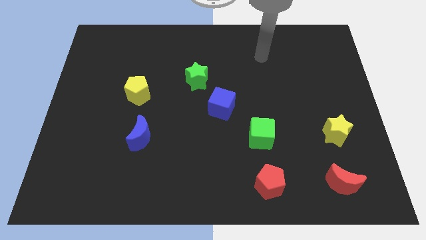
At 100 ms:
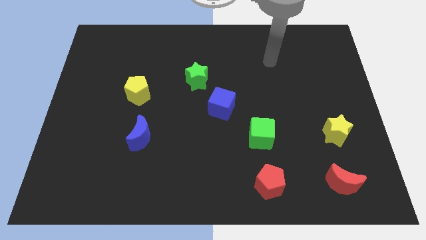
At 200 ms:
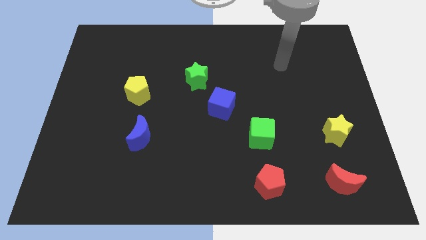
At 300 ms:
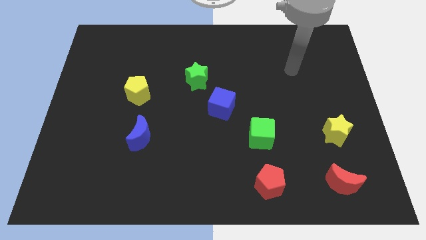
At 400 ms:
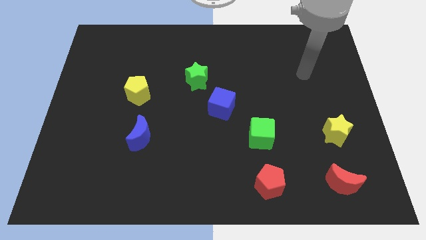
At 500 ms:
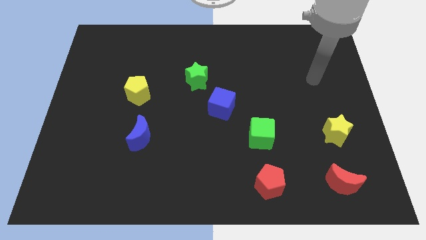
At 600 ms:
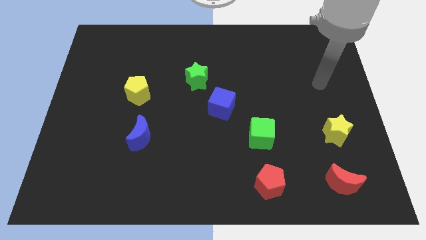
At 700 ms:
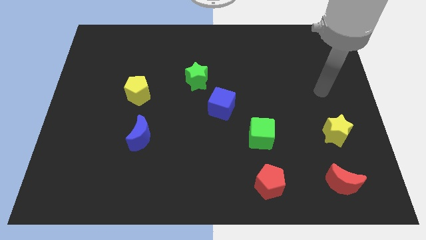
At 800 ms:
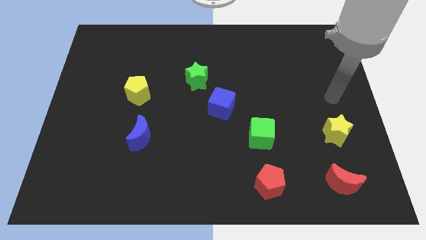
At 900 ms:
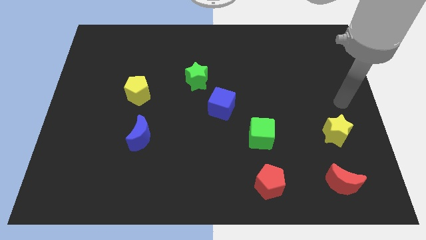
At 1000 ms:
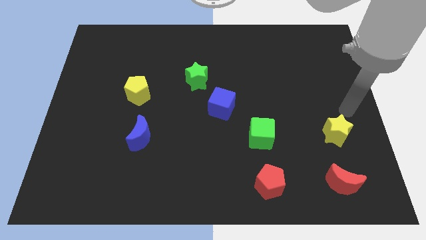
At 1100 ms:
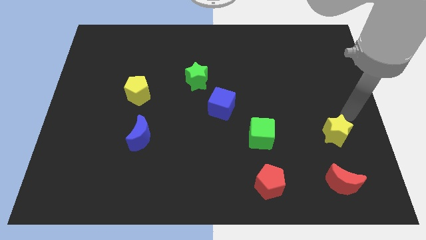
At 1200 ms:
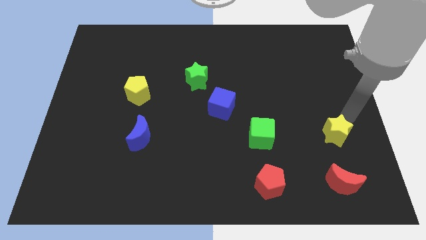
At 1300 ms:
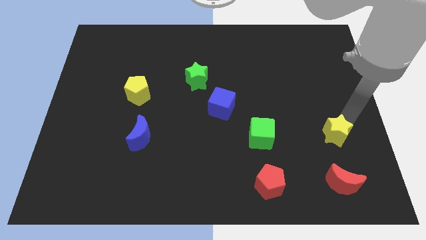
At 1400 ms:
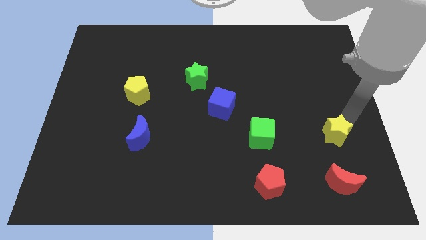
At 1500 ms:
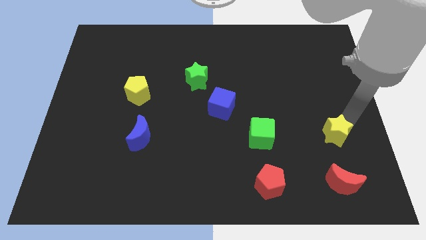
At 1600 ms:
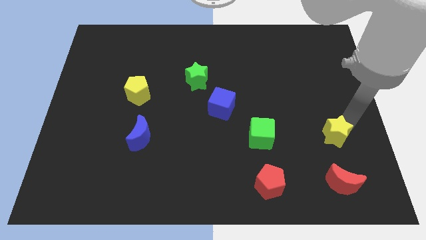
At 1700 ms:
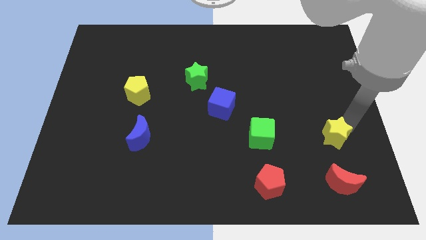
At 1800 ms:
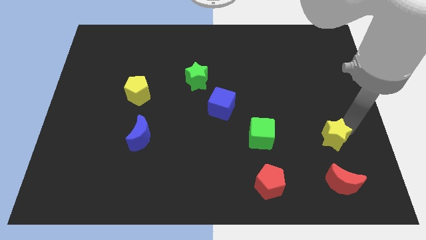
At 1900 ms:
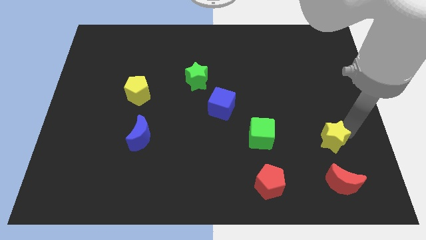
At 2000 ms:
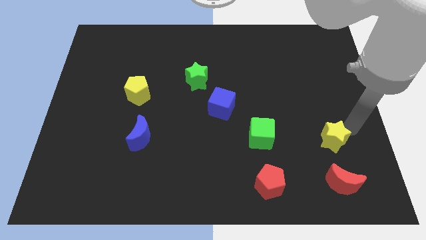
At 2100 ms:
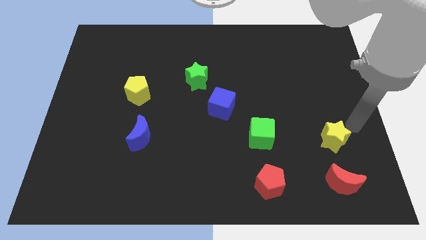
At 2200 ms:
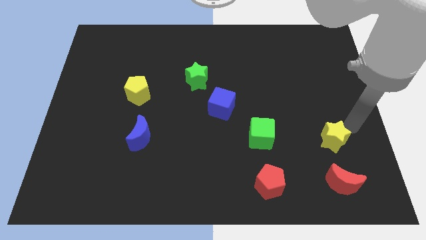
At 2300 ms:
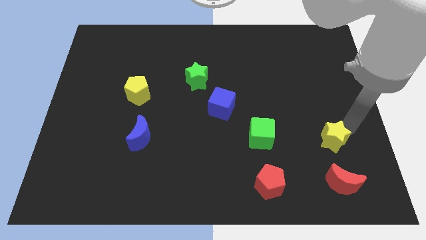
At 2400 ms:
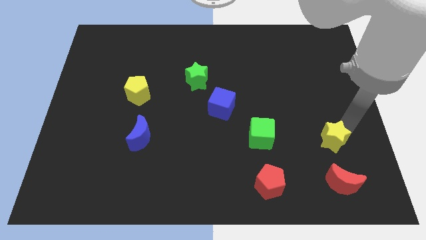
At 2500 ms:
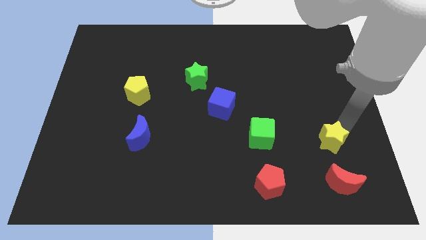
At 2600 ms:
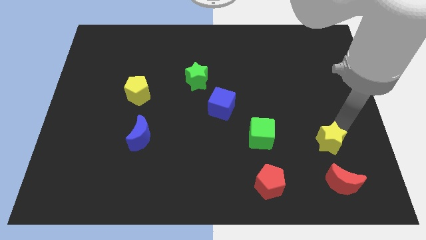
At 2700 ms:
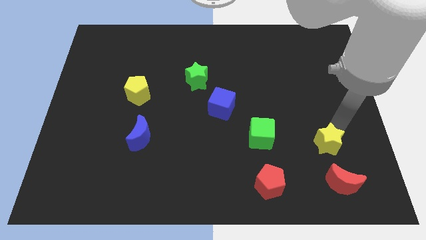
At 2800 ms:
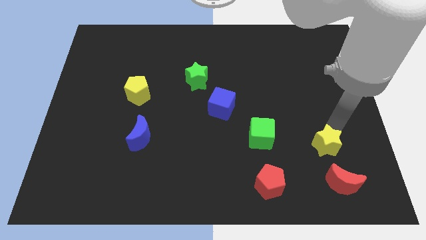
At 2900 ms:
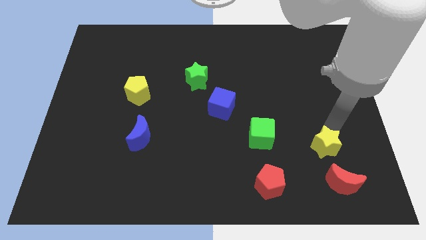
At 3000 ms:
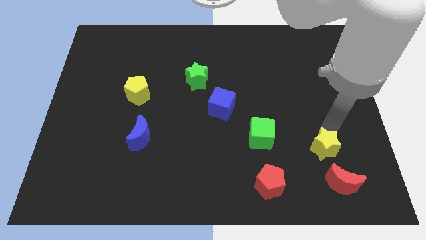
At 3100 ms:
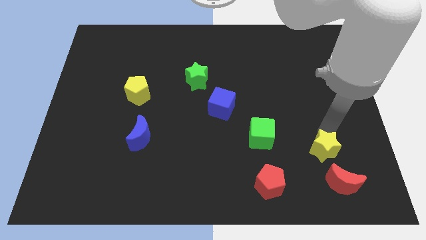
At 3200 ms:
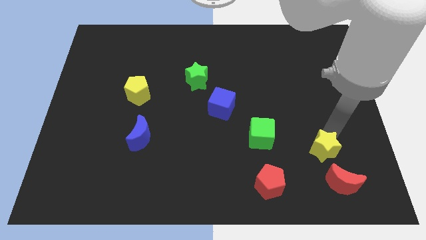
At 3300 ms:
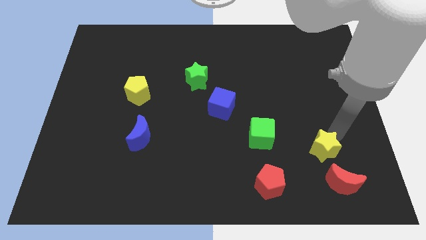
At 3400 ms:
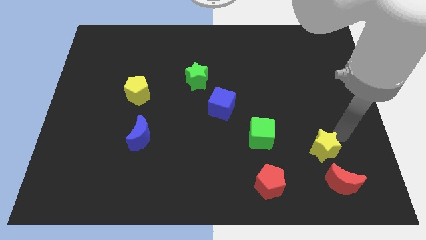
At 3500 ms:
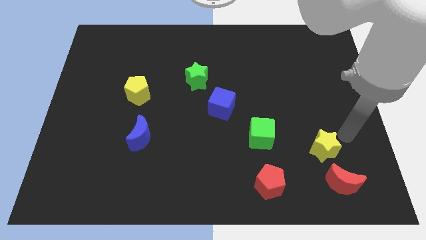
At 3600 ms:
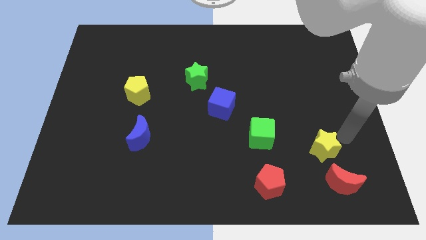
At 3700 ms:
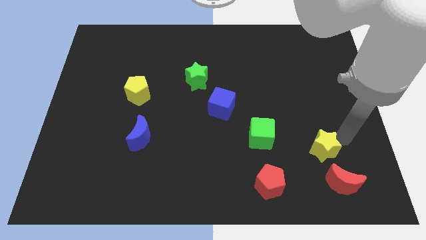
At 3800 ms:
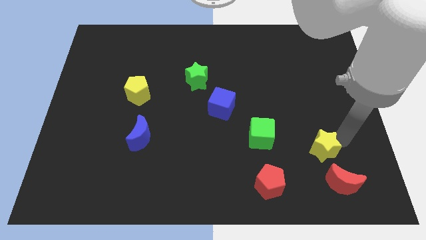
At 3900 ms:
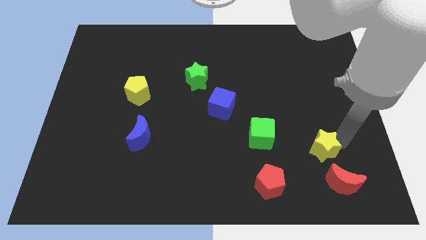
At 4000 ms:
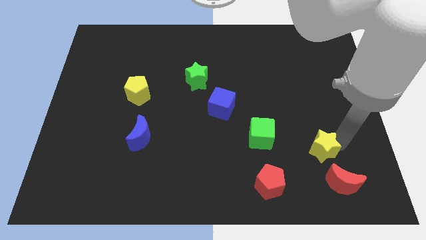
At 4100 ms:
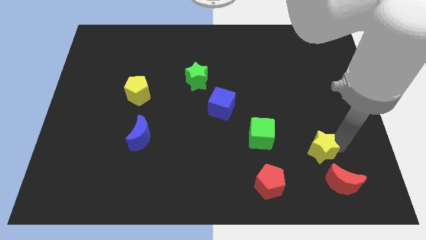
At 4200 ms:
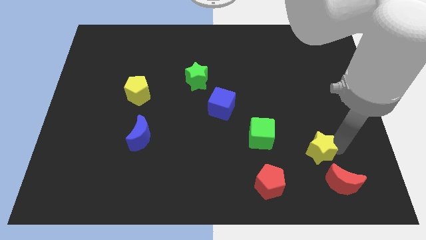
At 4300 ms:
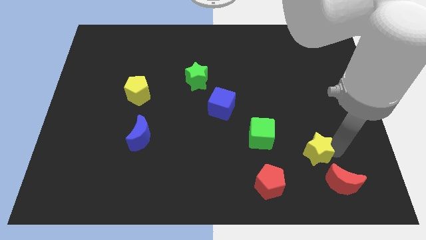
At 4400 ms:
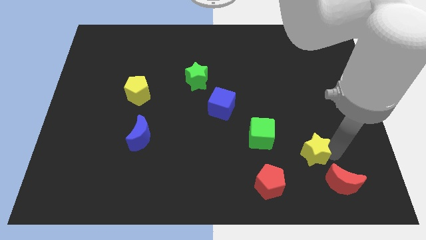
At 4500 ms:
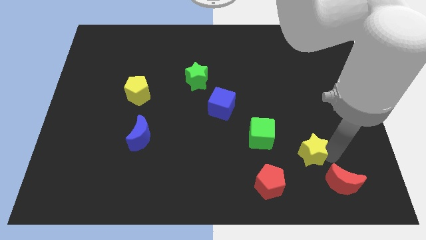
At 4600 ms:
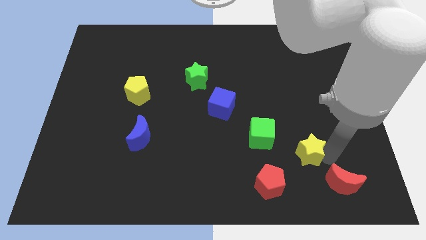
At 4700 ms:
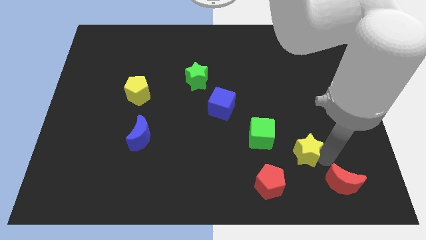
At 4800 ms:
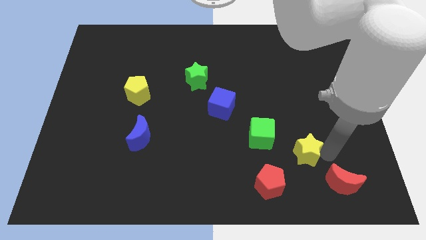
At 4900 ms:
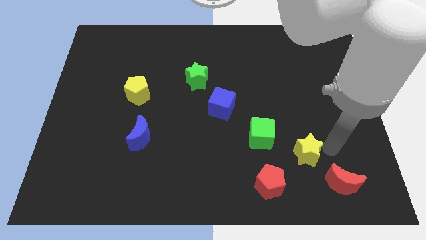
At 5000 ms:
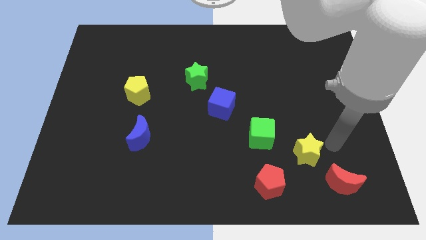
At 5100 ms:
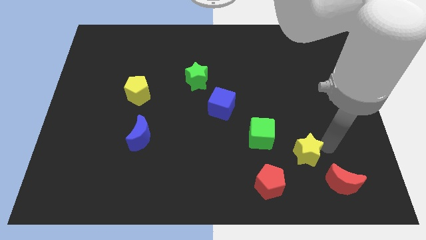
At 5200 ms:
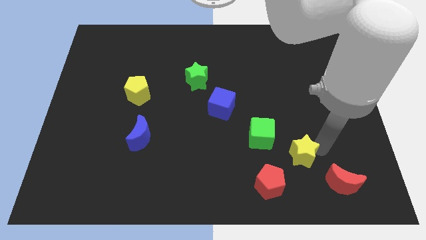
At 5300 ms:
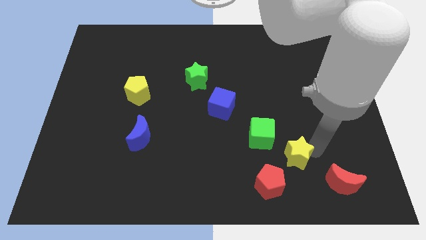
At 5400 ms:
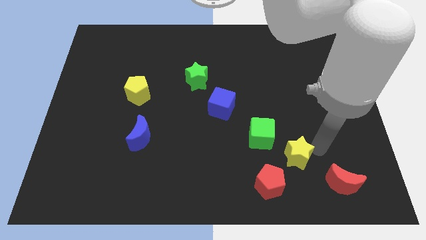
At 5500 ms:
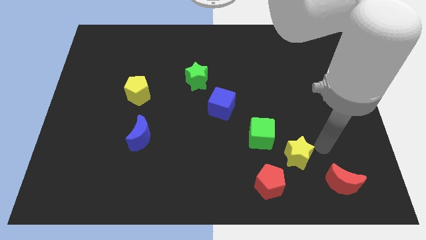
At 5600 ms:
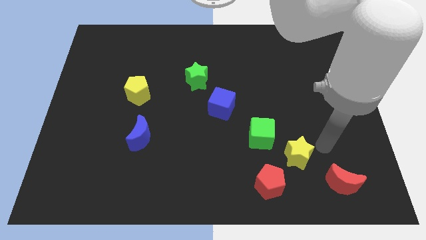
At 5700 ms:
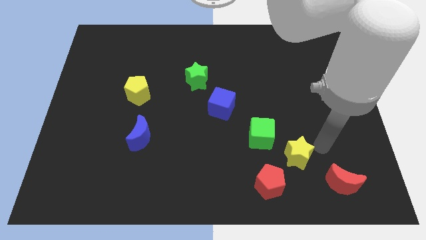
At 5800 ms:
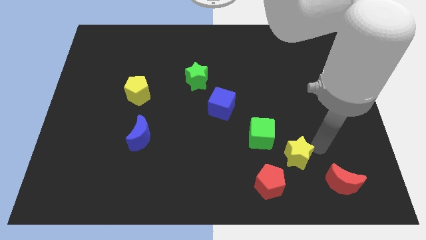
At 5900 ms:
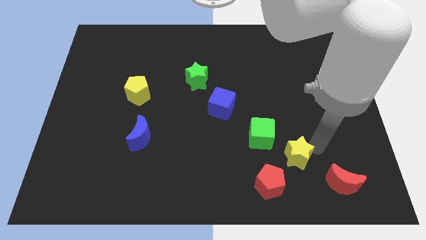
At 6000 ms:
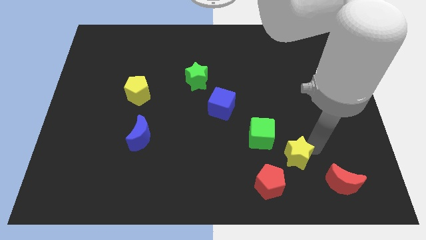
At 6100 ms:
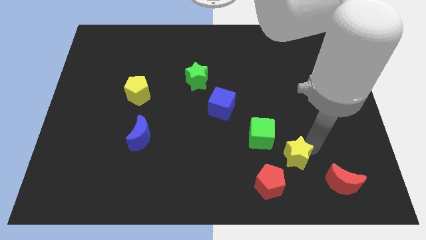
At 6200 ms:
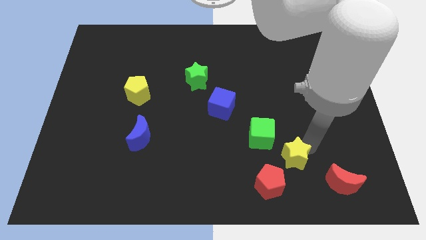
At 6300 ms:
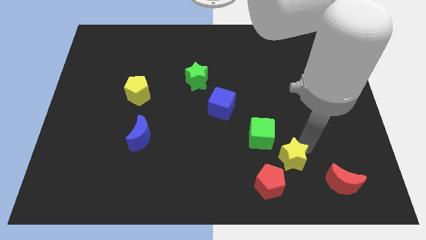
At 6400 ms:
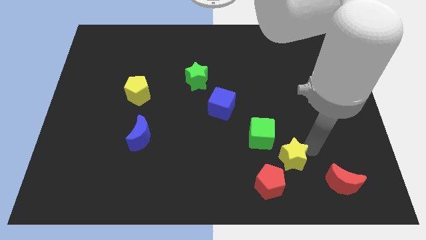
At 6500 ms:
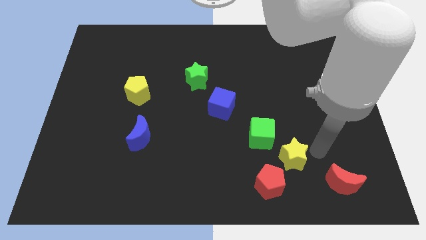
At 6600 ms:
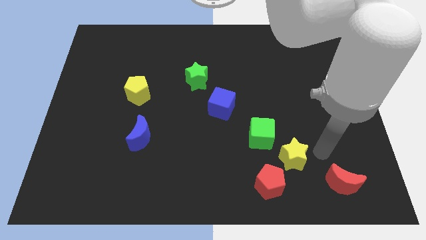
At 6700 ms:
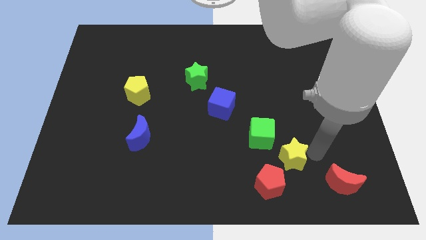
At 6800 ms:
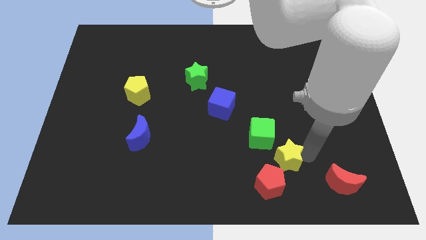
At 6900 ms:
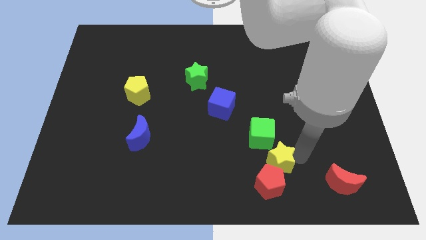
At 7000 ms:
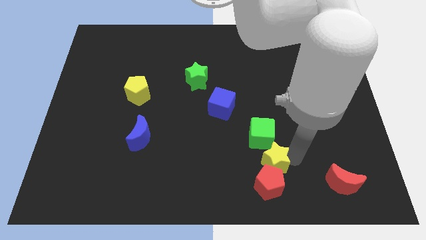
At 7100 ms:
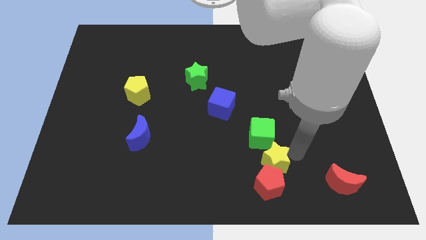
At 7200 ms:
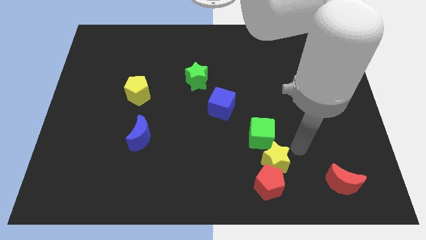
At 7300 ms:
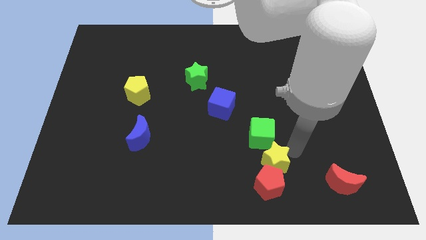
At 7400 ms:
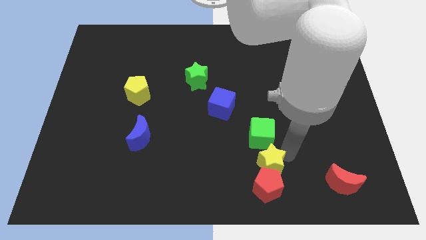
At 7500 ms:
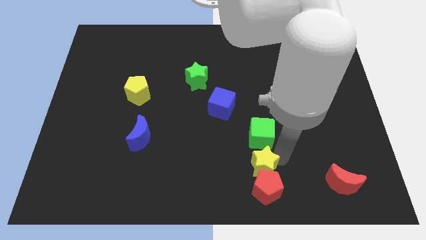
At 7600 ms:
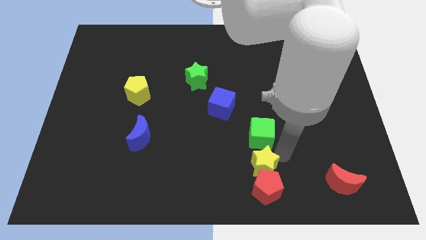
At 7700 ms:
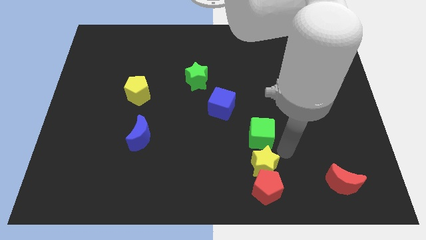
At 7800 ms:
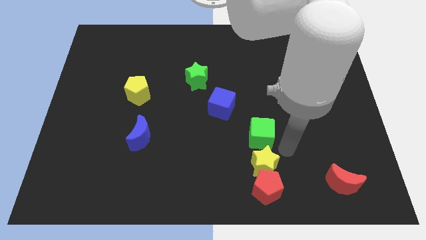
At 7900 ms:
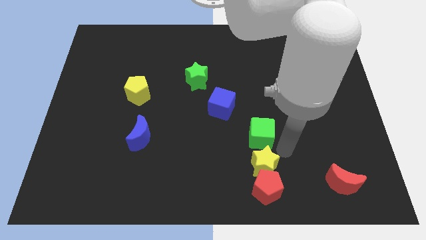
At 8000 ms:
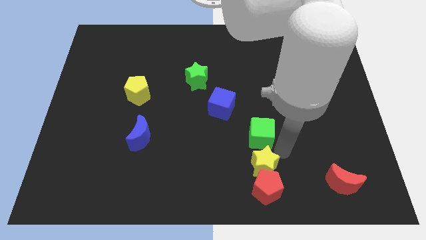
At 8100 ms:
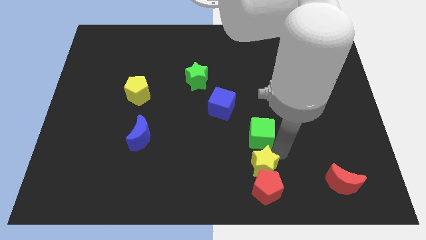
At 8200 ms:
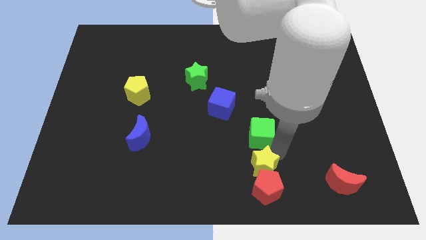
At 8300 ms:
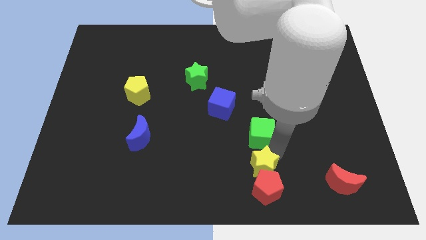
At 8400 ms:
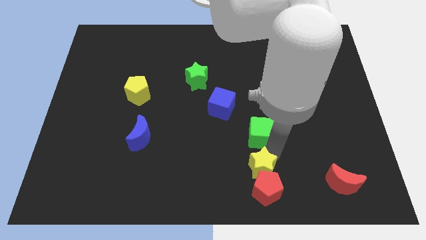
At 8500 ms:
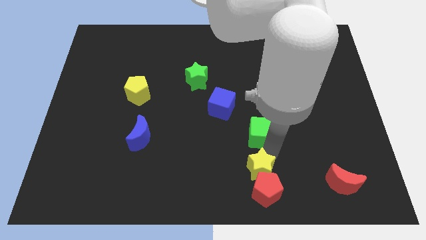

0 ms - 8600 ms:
put the yellow star to the bottom
